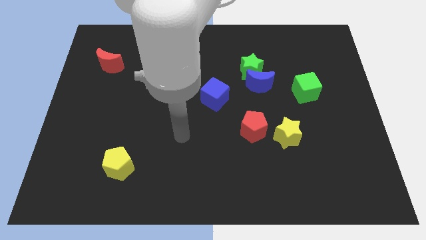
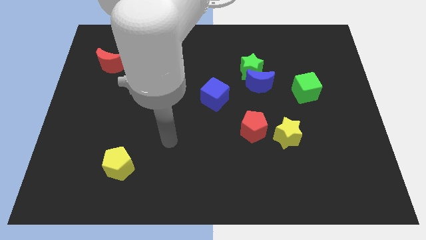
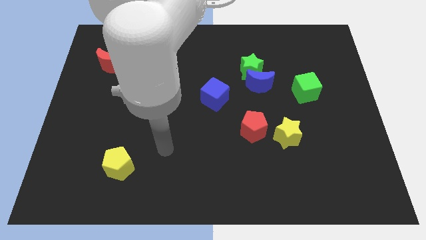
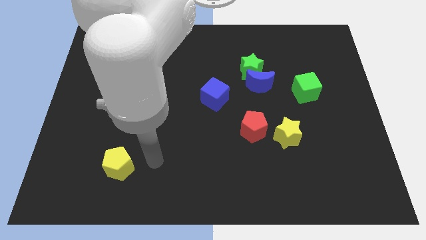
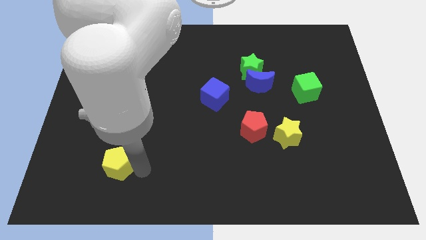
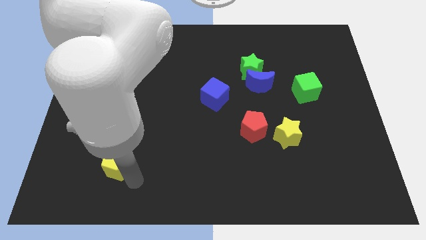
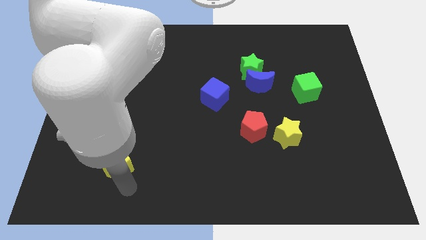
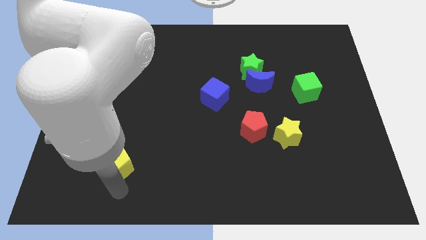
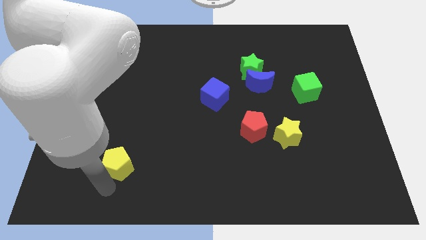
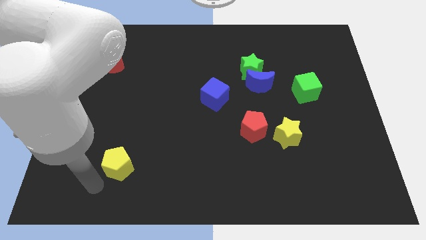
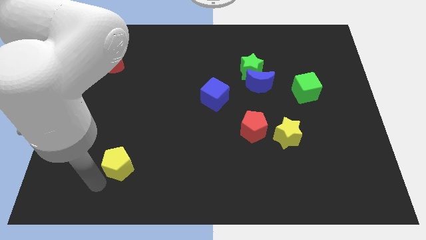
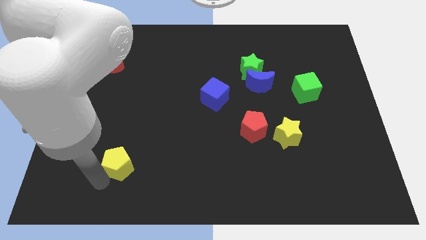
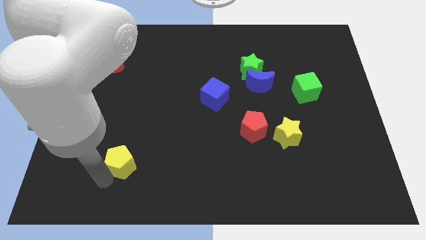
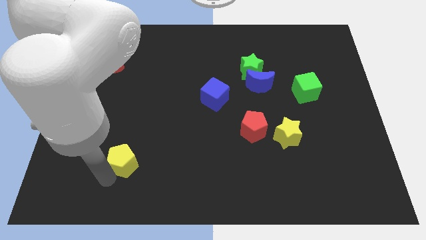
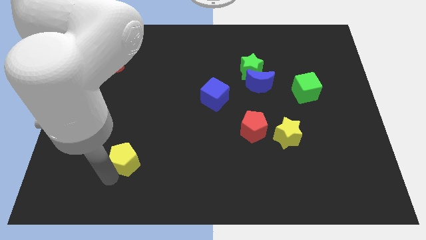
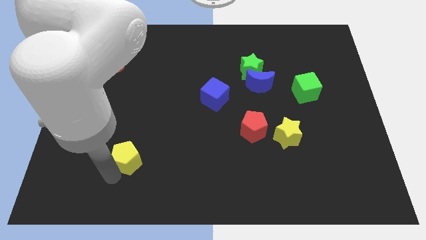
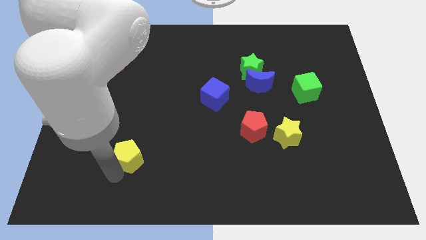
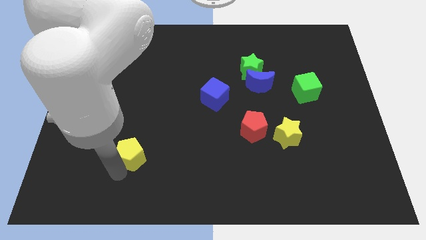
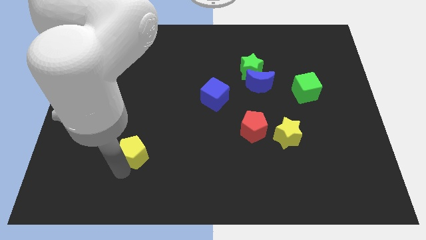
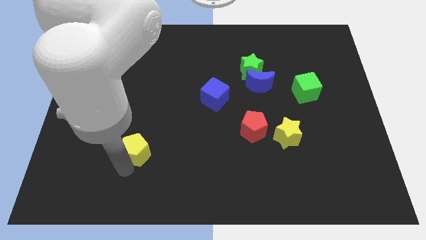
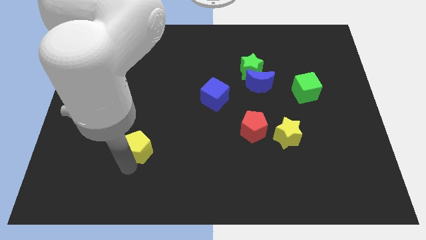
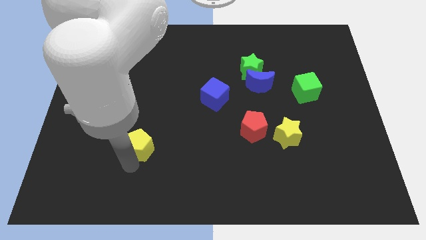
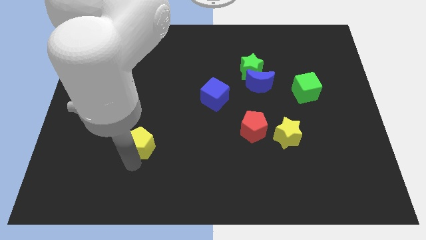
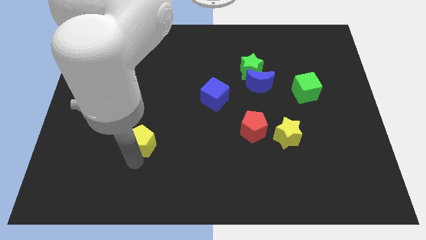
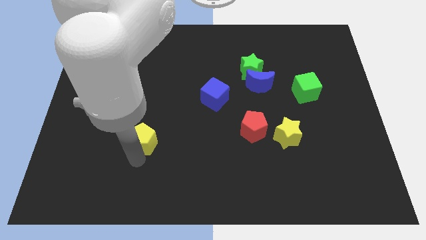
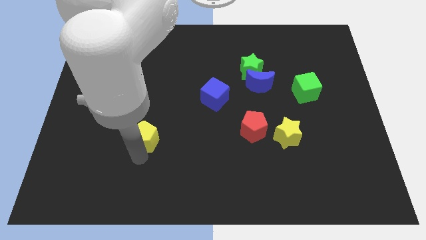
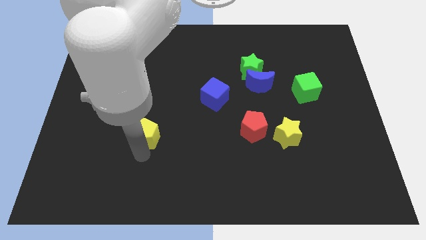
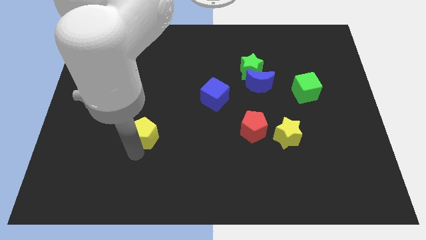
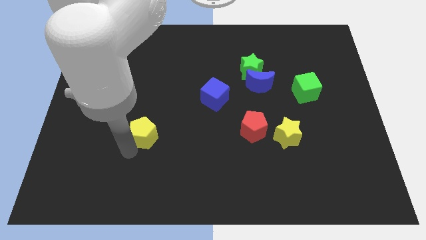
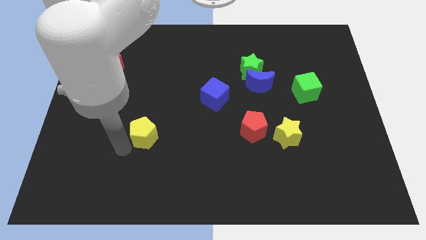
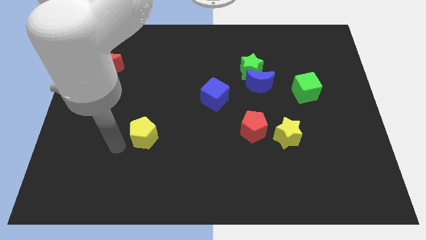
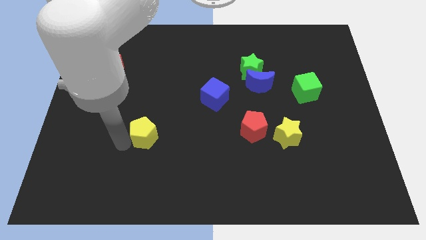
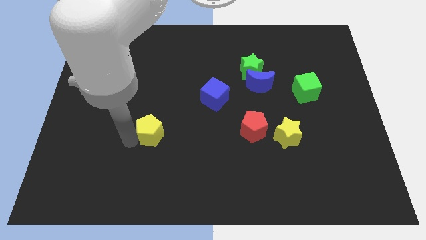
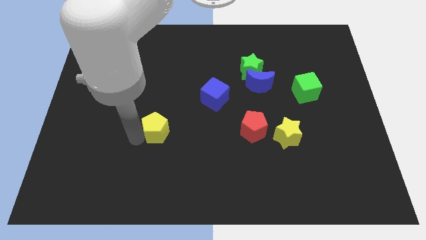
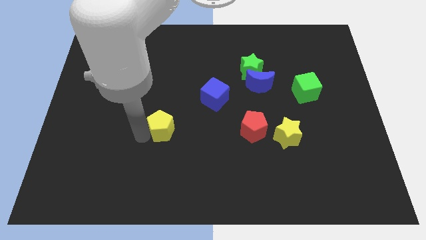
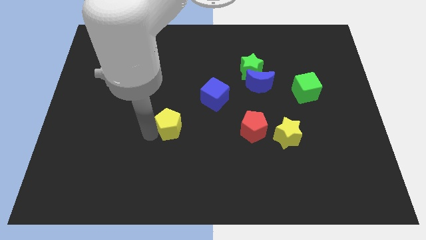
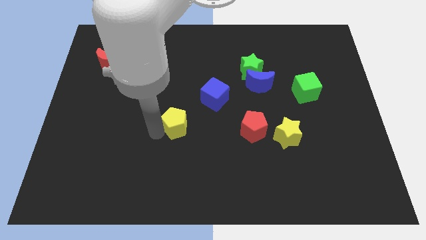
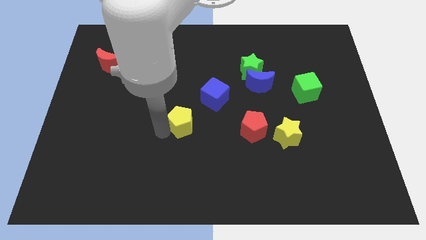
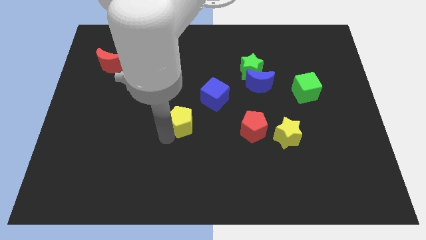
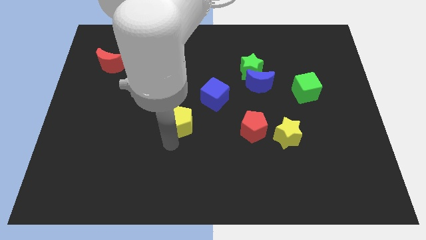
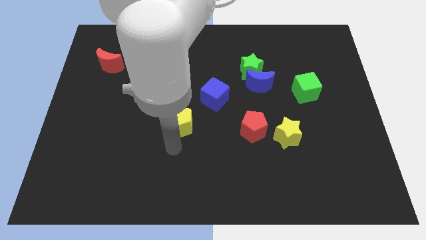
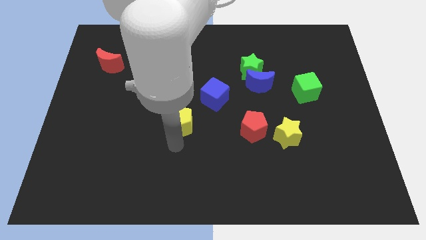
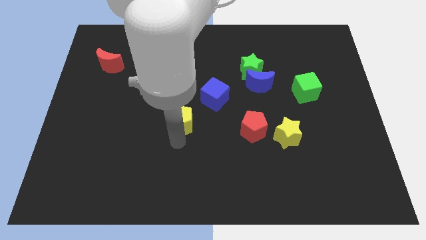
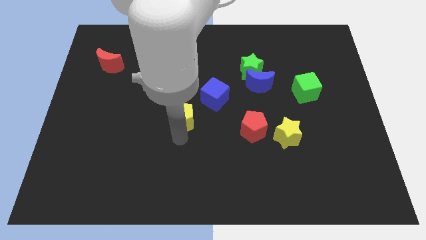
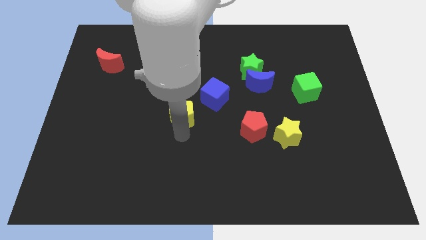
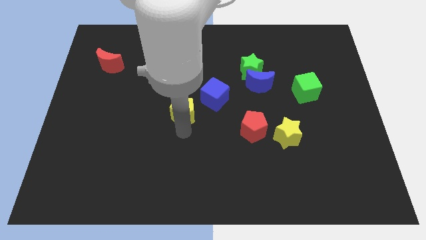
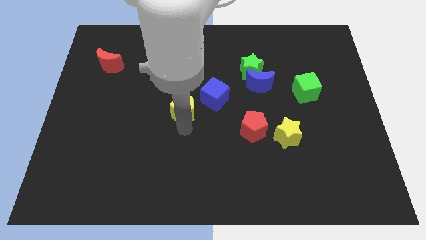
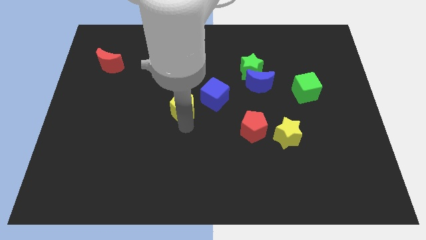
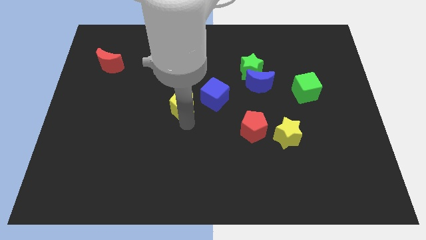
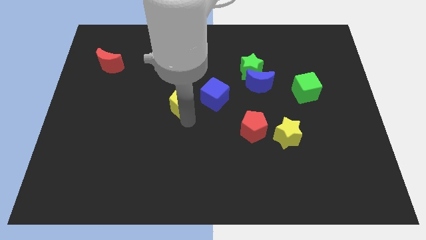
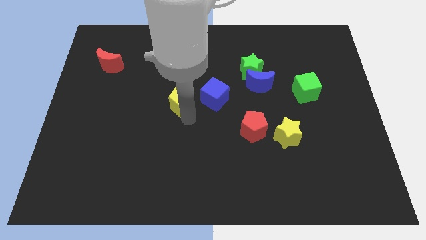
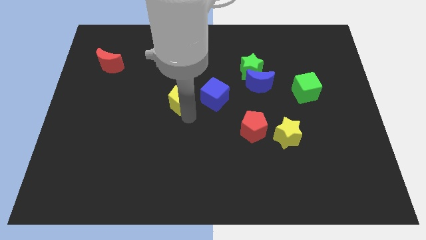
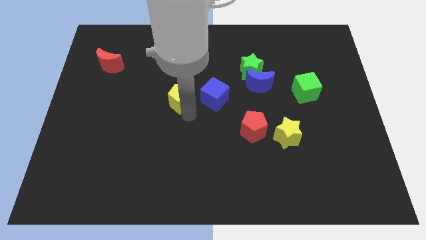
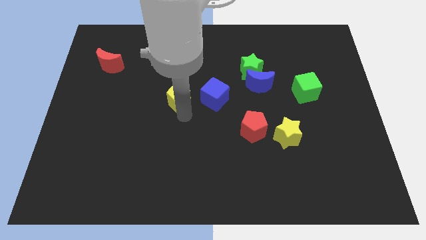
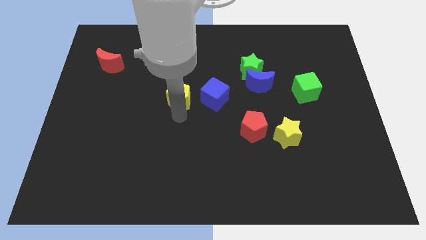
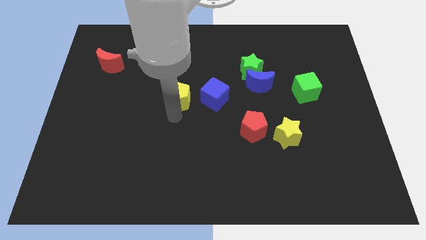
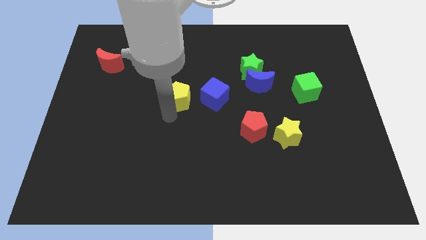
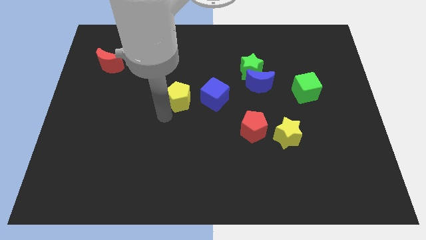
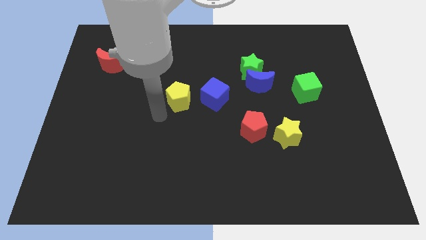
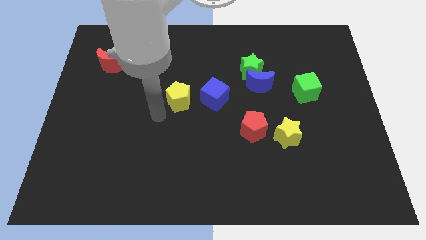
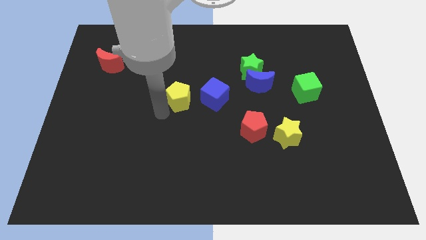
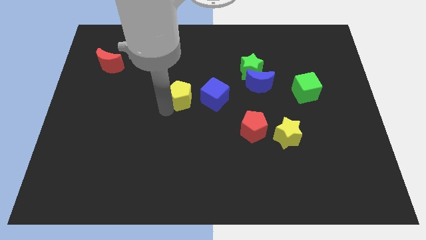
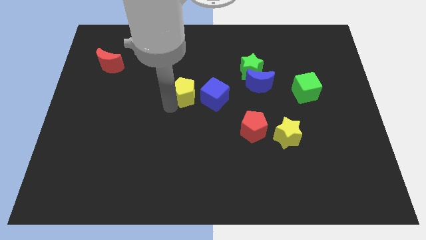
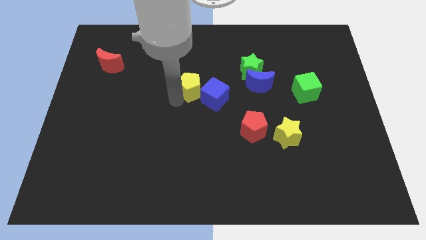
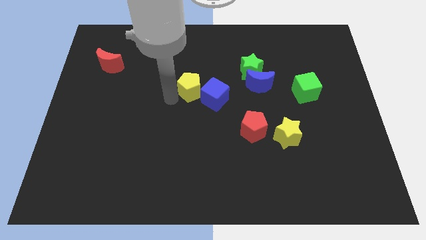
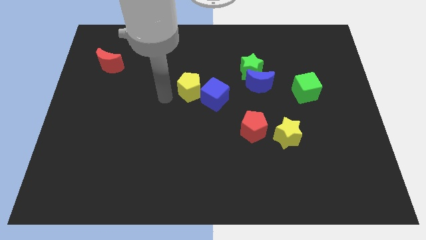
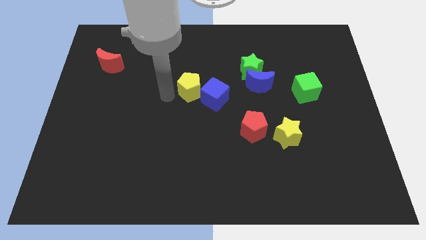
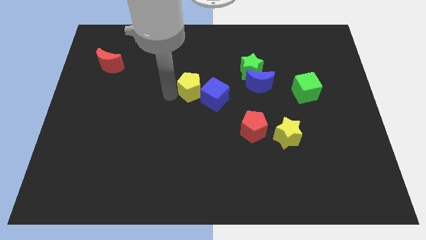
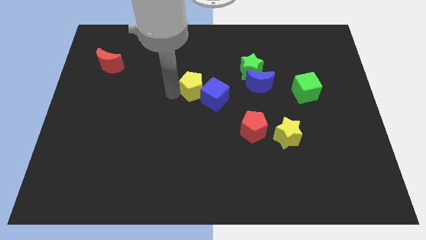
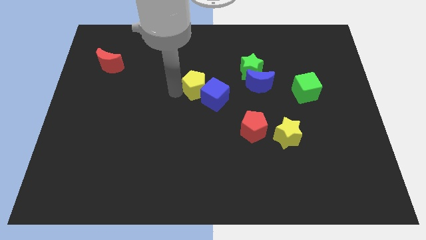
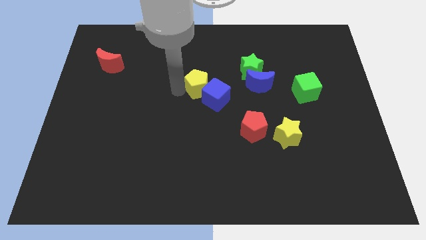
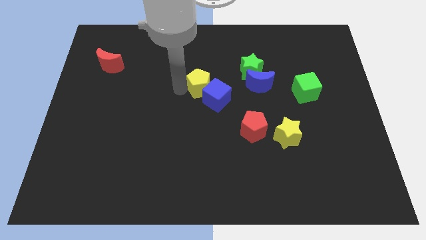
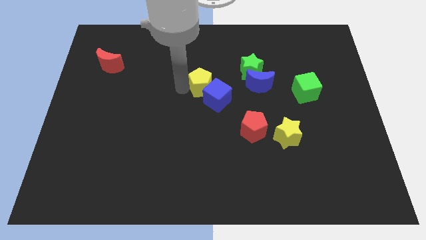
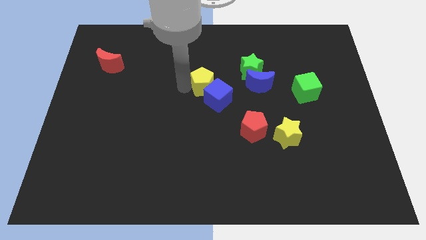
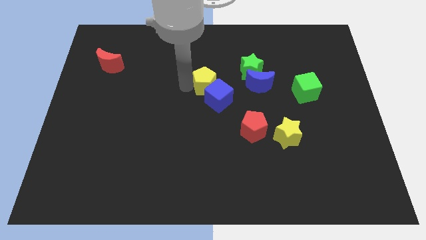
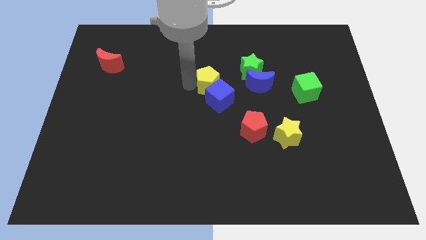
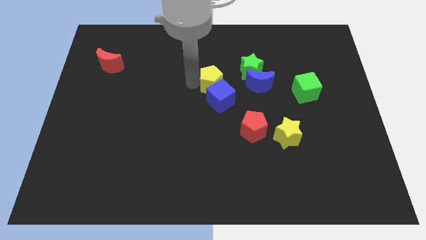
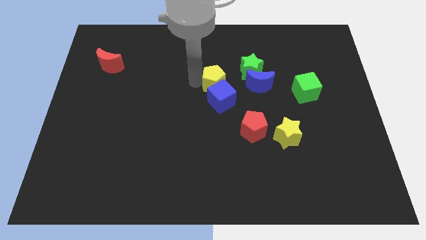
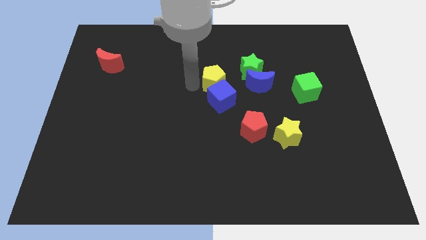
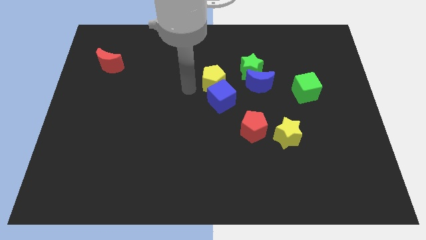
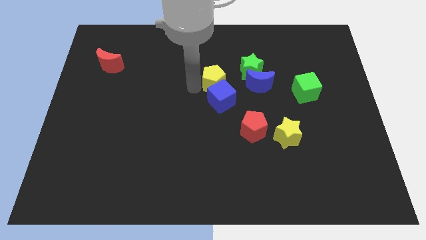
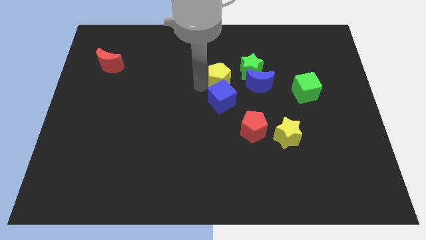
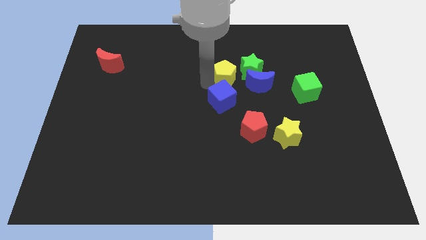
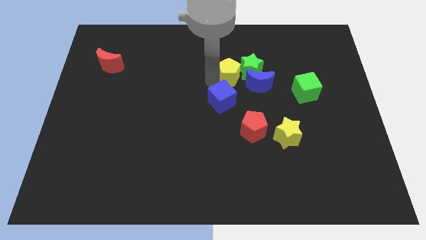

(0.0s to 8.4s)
push the yellow pentagon close to the green star
